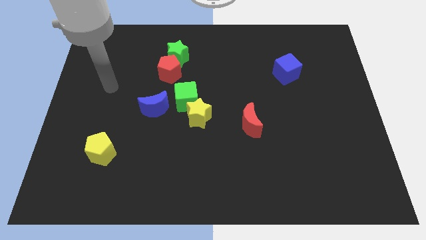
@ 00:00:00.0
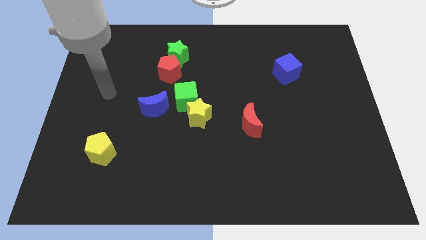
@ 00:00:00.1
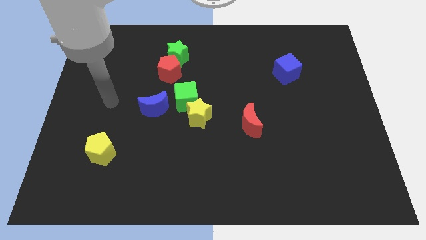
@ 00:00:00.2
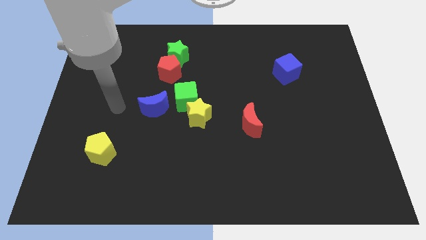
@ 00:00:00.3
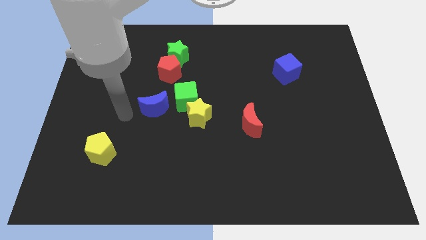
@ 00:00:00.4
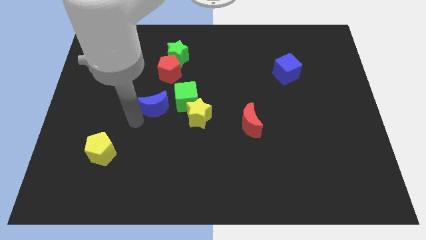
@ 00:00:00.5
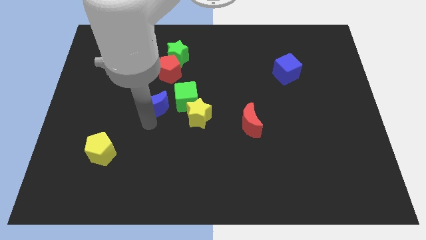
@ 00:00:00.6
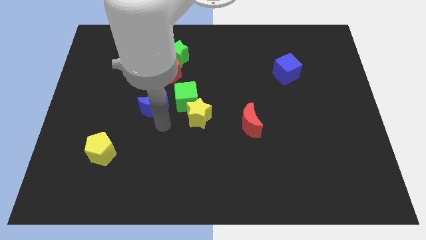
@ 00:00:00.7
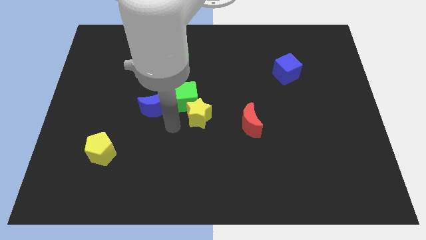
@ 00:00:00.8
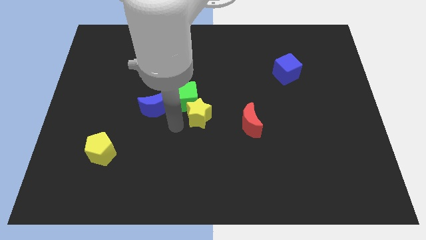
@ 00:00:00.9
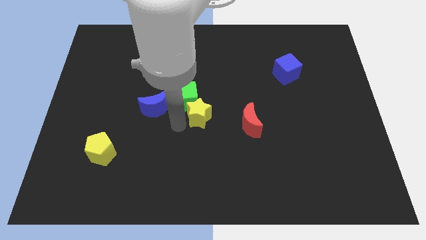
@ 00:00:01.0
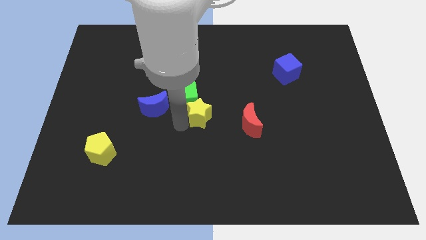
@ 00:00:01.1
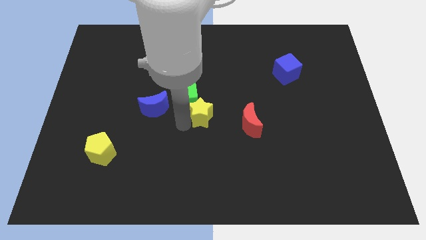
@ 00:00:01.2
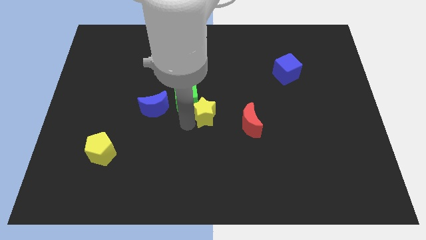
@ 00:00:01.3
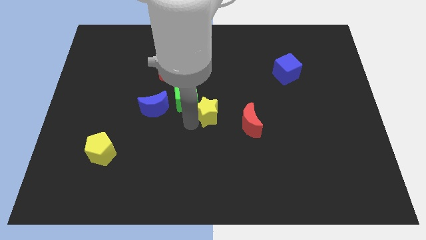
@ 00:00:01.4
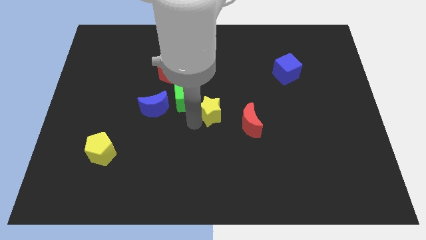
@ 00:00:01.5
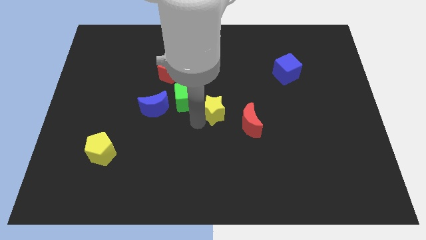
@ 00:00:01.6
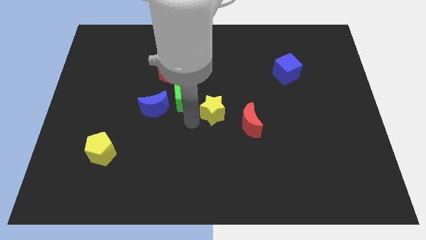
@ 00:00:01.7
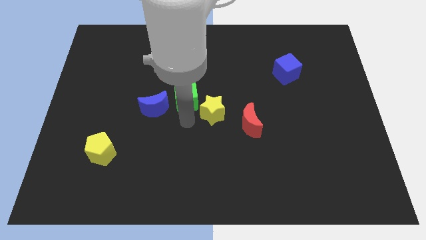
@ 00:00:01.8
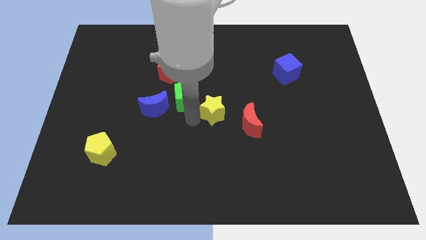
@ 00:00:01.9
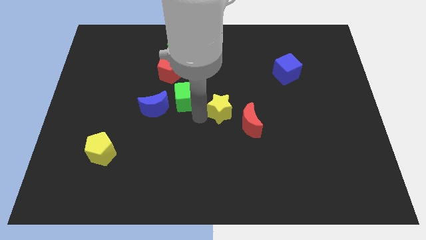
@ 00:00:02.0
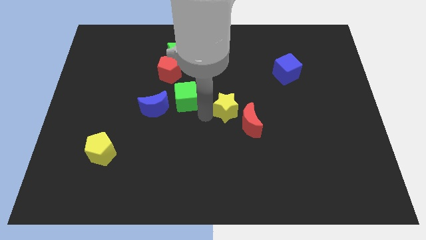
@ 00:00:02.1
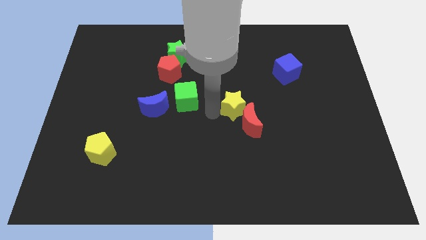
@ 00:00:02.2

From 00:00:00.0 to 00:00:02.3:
slightly push the yellow star right

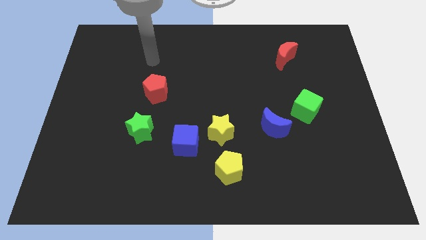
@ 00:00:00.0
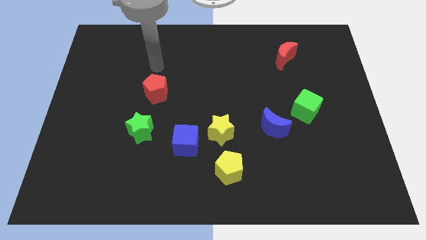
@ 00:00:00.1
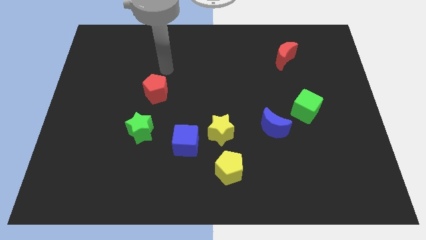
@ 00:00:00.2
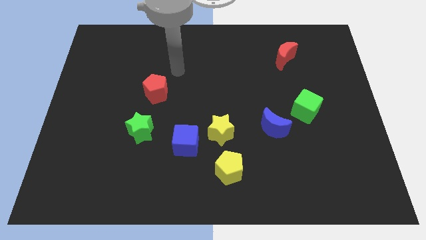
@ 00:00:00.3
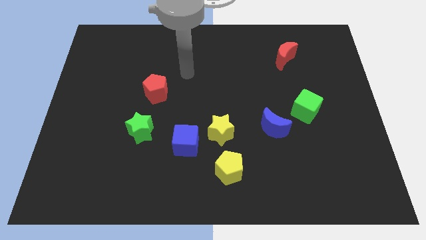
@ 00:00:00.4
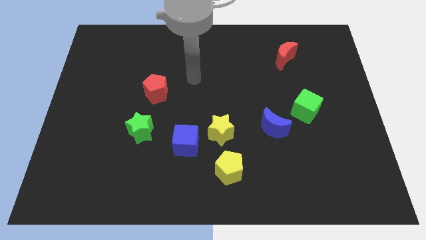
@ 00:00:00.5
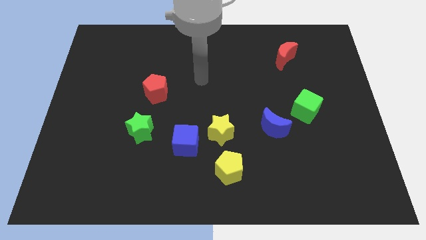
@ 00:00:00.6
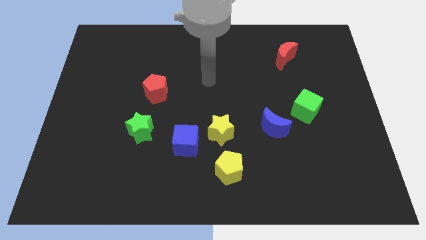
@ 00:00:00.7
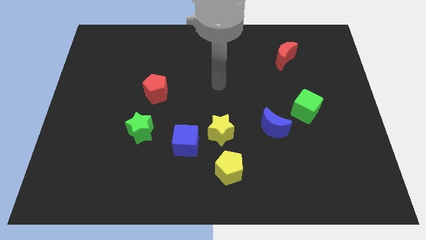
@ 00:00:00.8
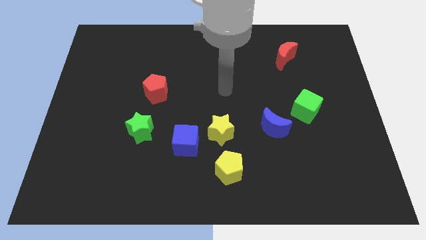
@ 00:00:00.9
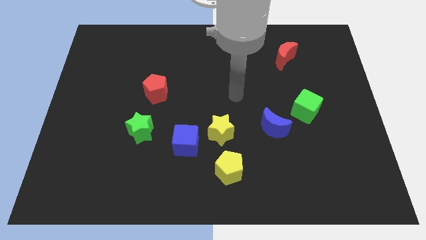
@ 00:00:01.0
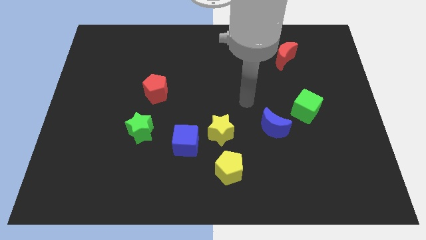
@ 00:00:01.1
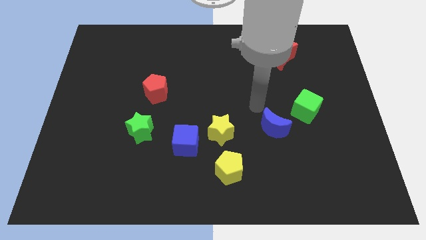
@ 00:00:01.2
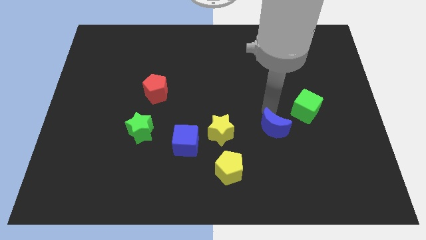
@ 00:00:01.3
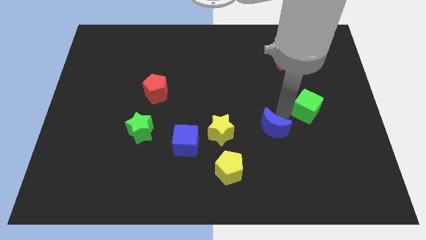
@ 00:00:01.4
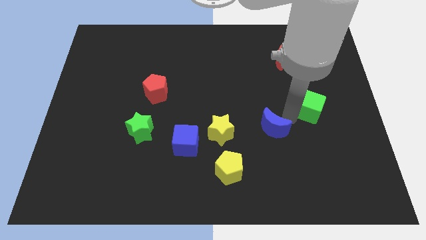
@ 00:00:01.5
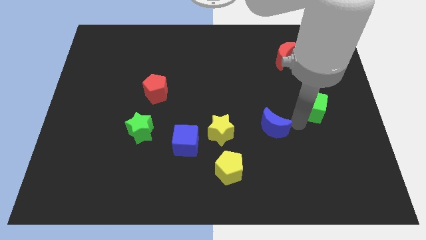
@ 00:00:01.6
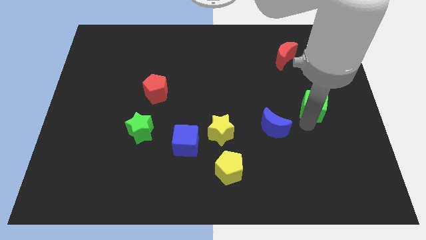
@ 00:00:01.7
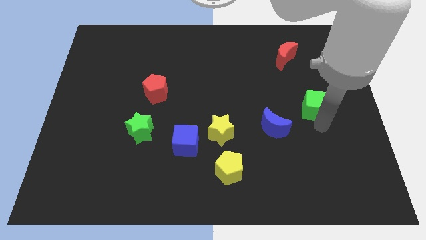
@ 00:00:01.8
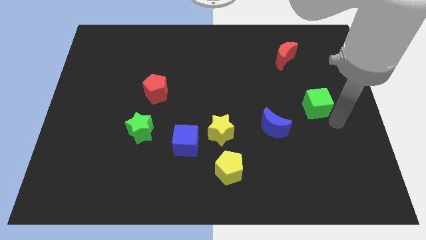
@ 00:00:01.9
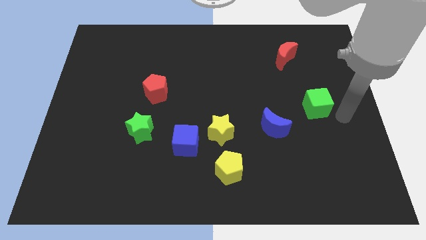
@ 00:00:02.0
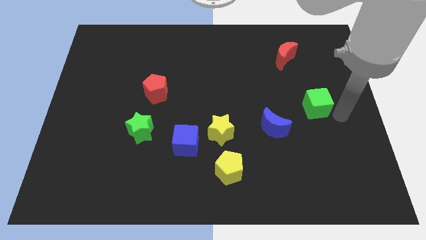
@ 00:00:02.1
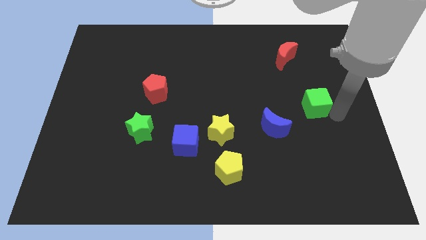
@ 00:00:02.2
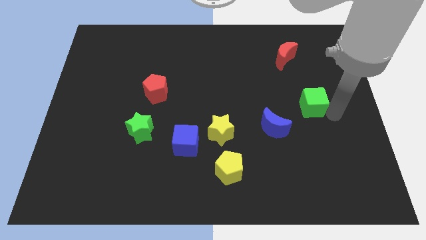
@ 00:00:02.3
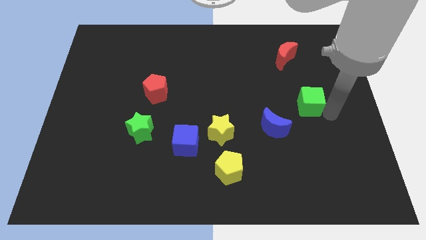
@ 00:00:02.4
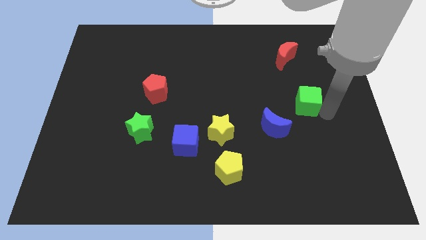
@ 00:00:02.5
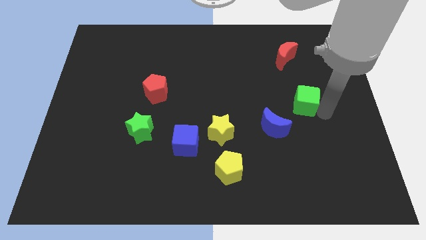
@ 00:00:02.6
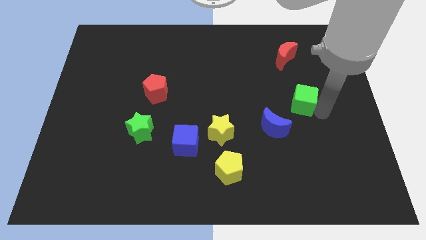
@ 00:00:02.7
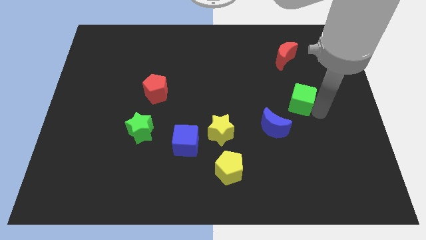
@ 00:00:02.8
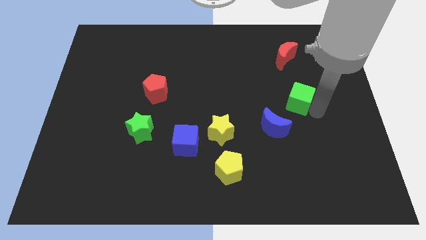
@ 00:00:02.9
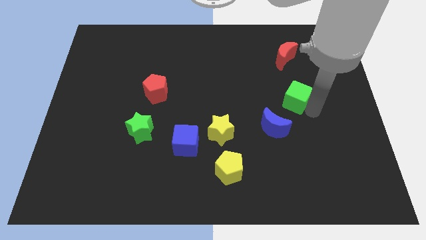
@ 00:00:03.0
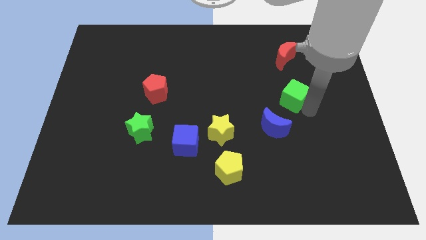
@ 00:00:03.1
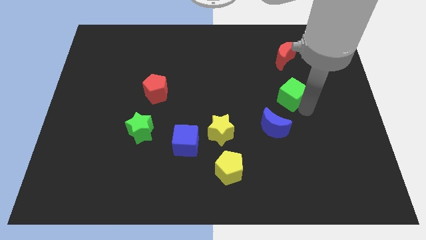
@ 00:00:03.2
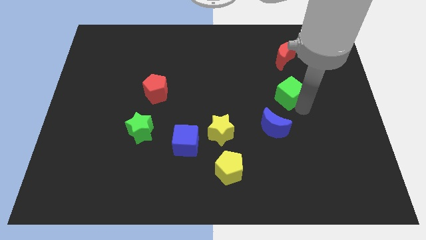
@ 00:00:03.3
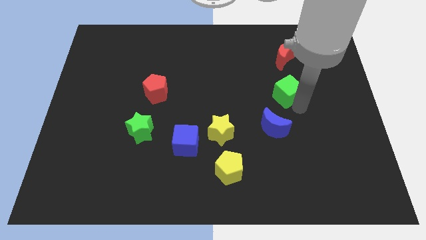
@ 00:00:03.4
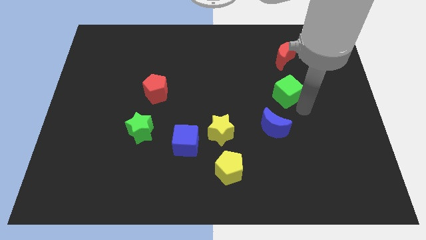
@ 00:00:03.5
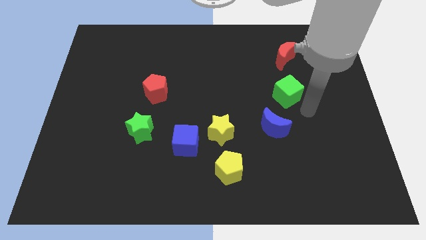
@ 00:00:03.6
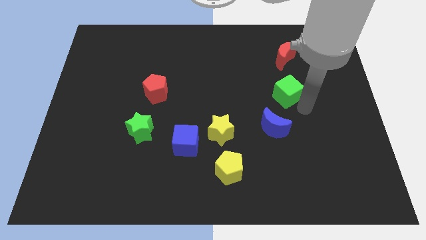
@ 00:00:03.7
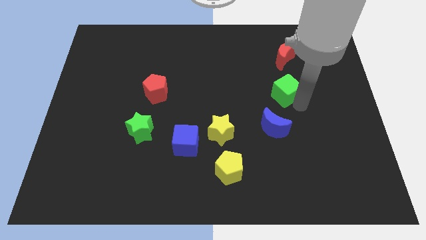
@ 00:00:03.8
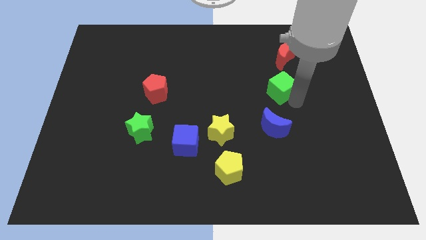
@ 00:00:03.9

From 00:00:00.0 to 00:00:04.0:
push the green cube up and to the left a little

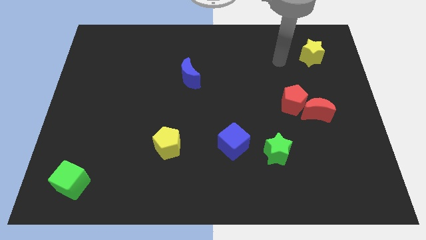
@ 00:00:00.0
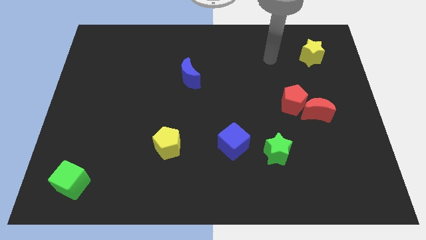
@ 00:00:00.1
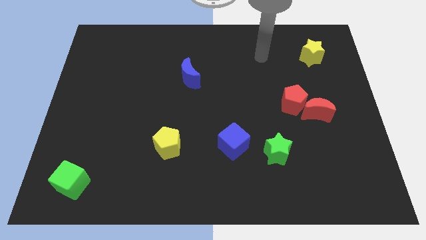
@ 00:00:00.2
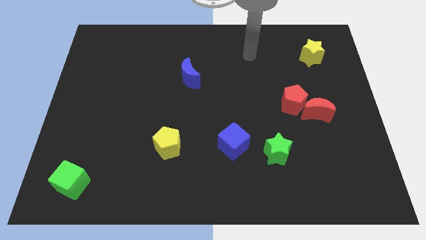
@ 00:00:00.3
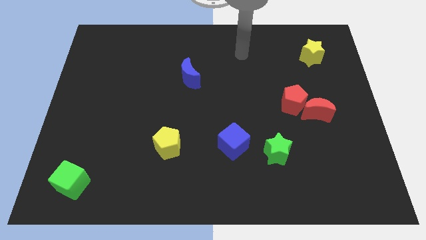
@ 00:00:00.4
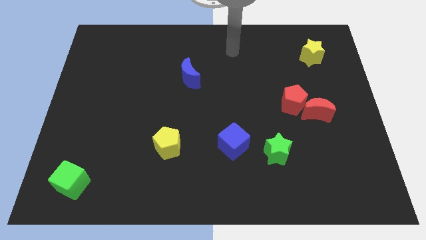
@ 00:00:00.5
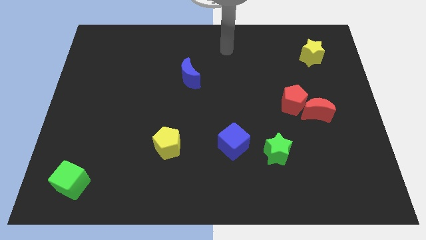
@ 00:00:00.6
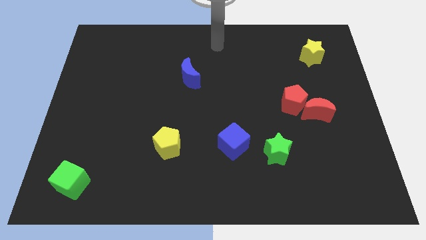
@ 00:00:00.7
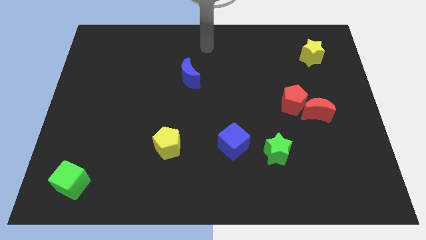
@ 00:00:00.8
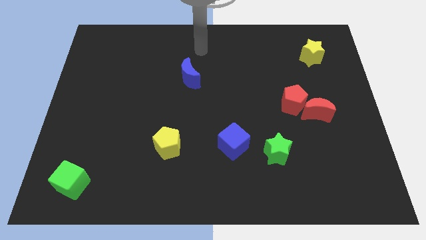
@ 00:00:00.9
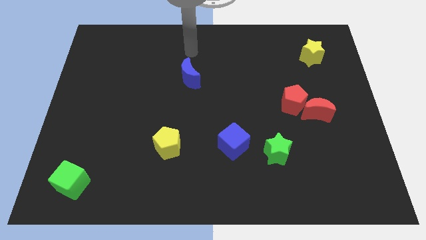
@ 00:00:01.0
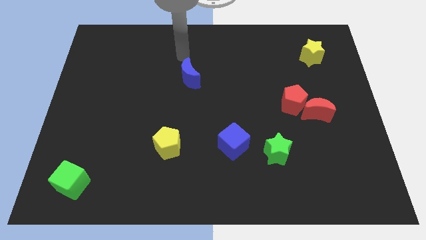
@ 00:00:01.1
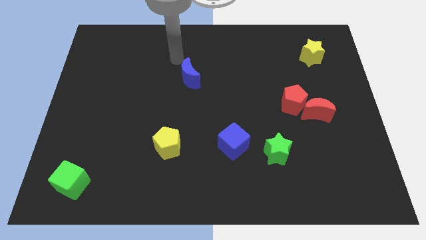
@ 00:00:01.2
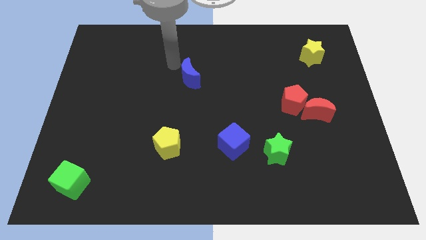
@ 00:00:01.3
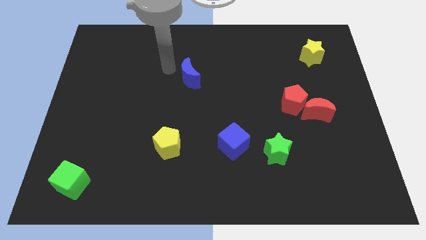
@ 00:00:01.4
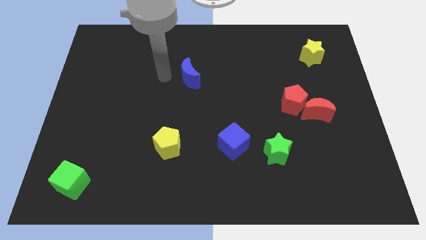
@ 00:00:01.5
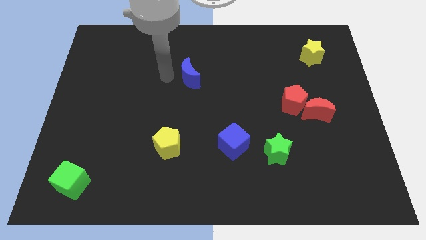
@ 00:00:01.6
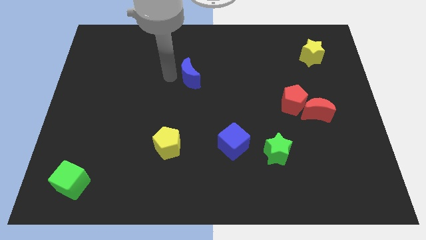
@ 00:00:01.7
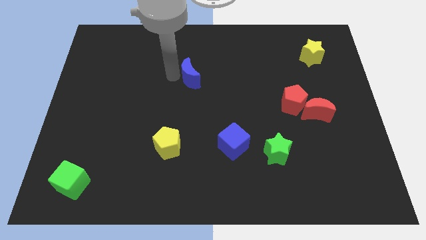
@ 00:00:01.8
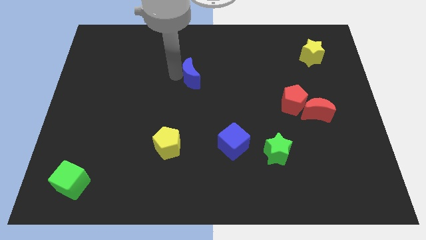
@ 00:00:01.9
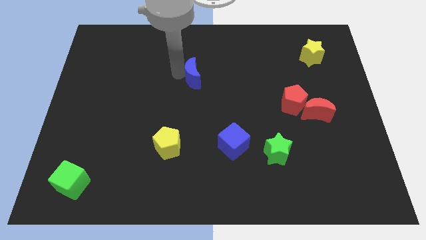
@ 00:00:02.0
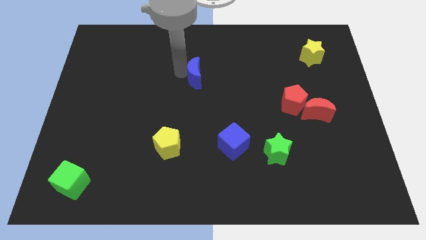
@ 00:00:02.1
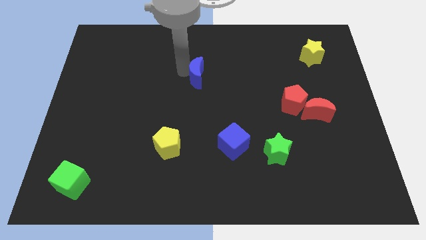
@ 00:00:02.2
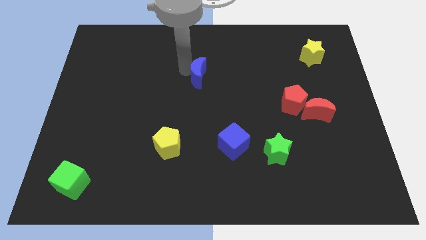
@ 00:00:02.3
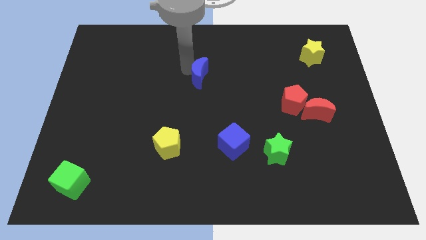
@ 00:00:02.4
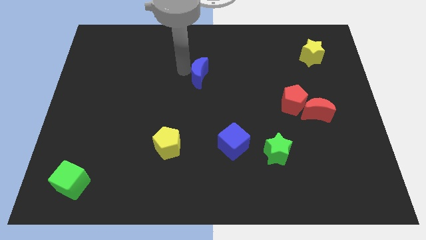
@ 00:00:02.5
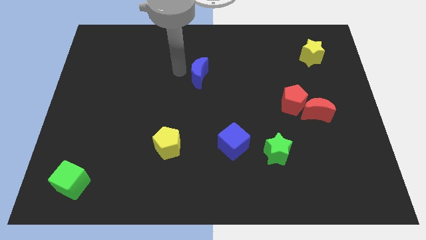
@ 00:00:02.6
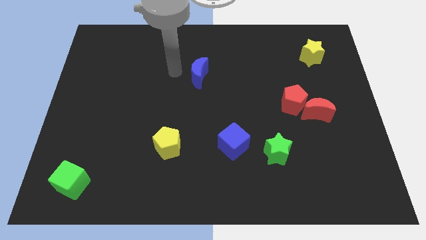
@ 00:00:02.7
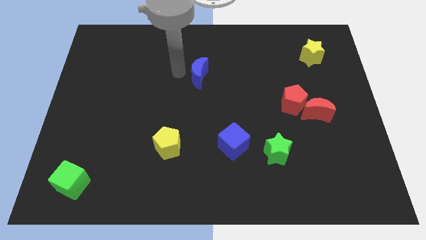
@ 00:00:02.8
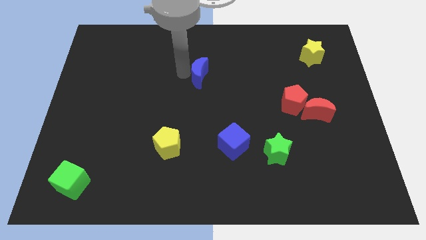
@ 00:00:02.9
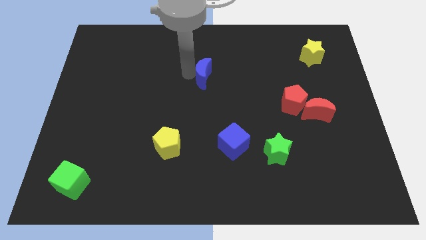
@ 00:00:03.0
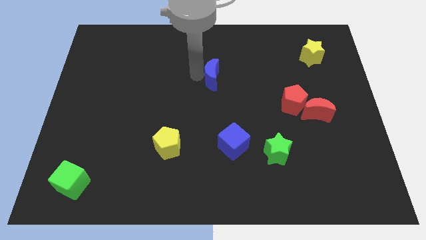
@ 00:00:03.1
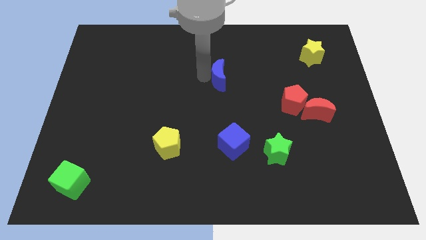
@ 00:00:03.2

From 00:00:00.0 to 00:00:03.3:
slide the blue moon slightly to the right
